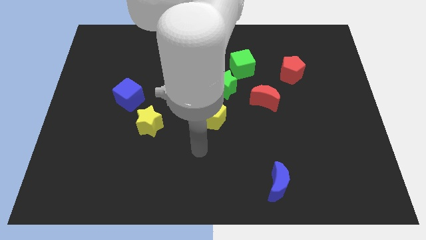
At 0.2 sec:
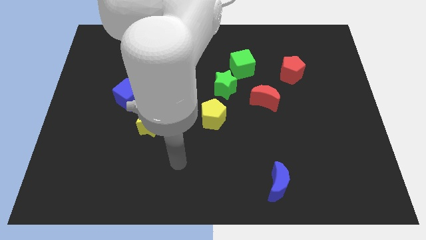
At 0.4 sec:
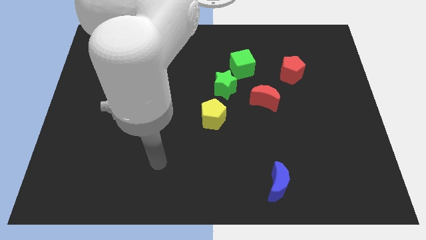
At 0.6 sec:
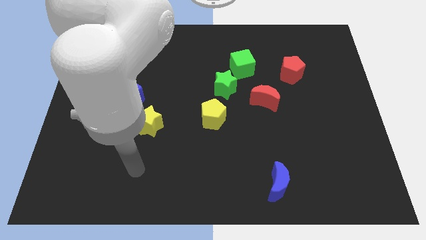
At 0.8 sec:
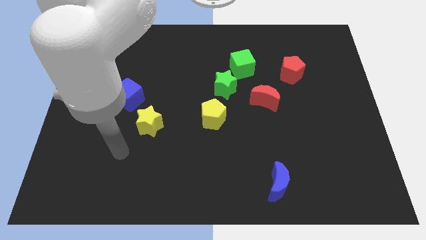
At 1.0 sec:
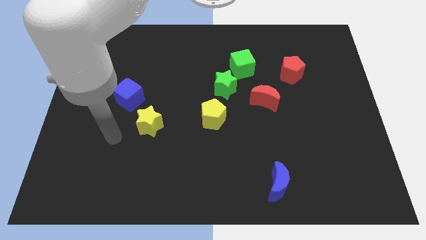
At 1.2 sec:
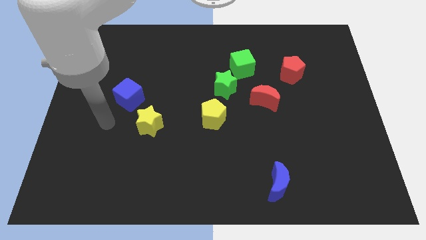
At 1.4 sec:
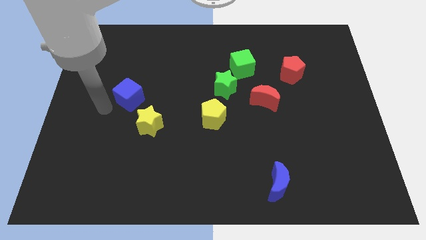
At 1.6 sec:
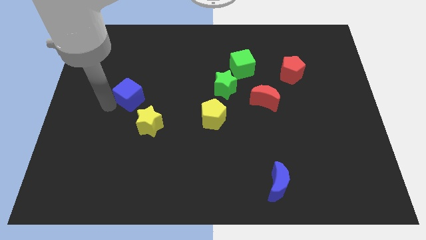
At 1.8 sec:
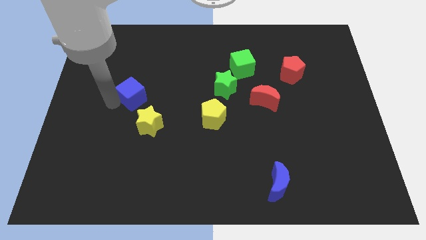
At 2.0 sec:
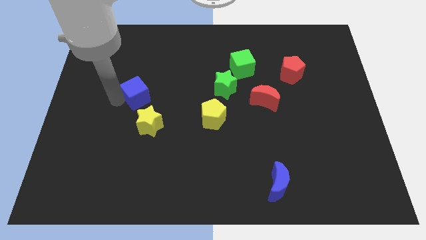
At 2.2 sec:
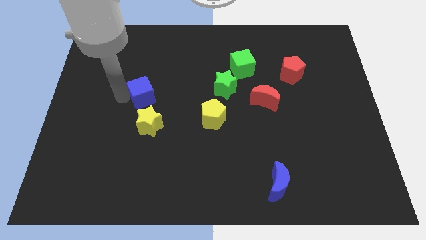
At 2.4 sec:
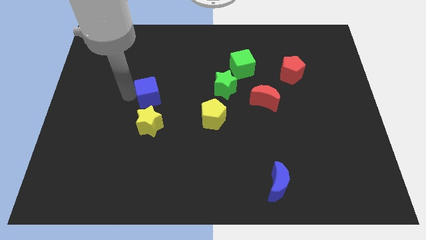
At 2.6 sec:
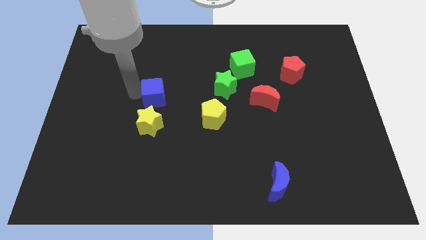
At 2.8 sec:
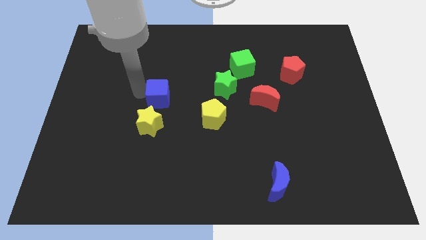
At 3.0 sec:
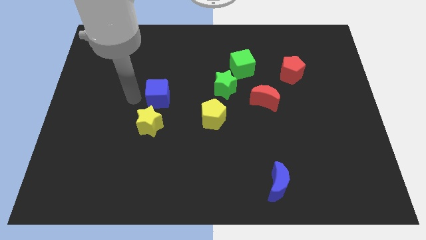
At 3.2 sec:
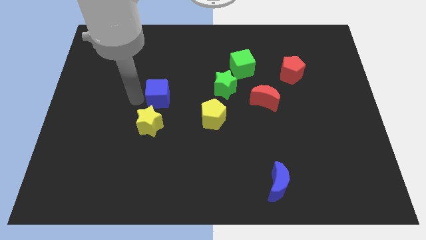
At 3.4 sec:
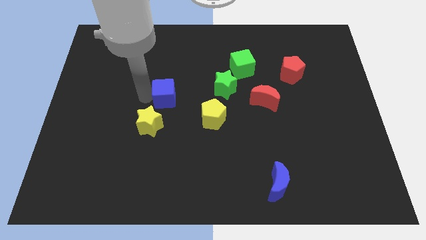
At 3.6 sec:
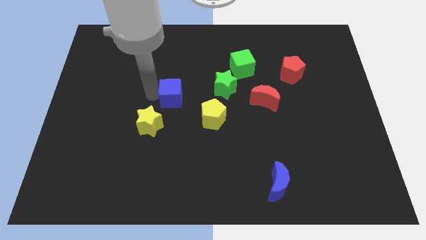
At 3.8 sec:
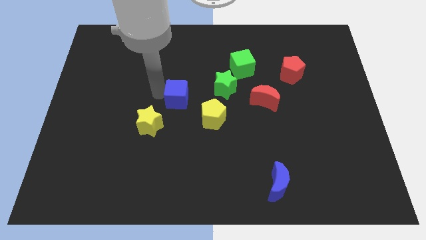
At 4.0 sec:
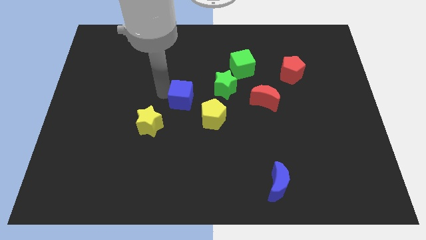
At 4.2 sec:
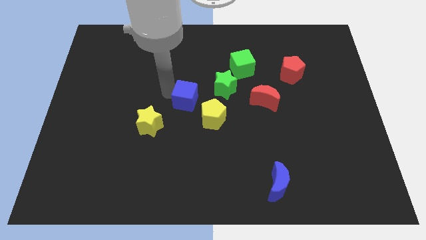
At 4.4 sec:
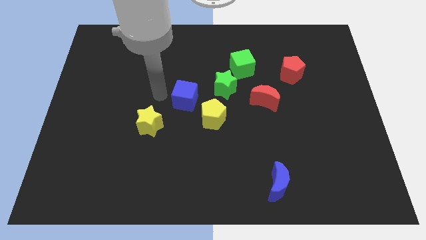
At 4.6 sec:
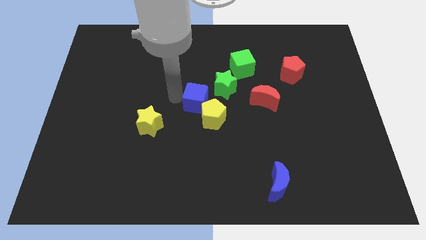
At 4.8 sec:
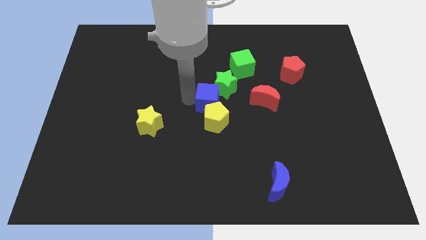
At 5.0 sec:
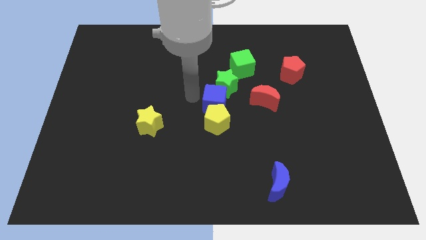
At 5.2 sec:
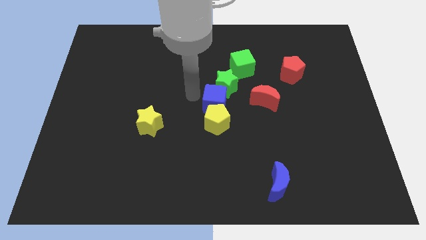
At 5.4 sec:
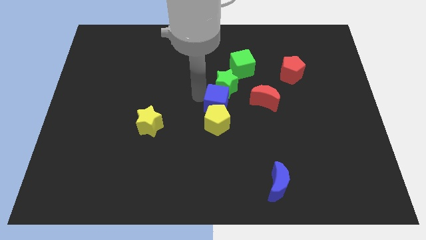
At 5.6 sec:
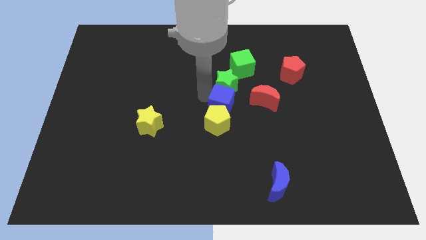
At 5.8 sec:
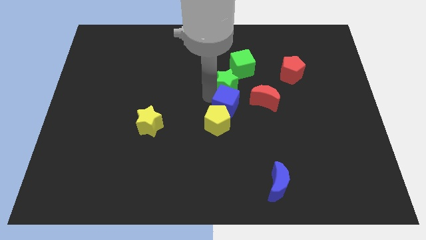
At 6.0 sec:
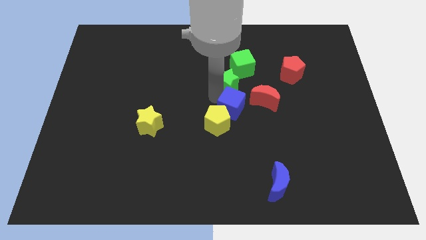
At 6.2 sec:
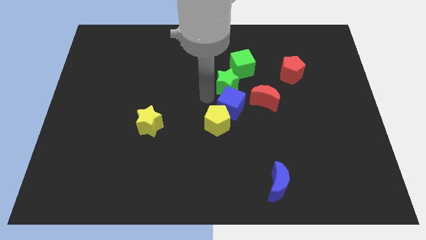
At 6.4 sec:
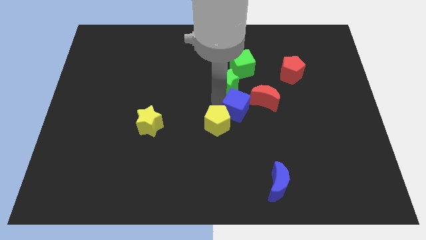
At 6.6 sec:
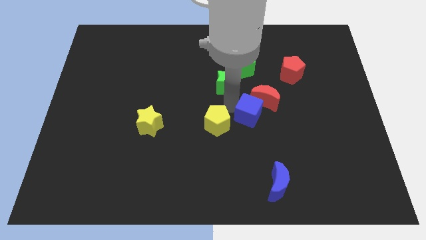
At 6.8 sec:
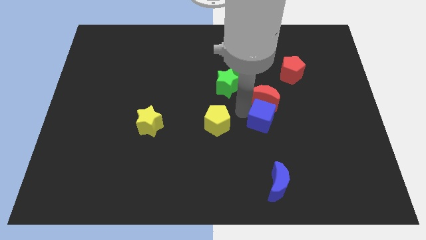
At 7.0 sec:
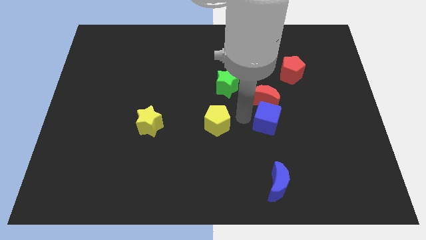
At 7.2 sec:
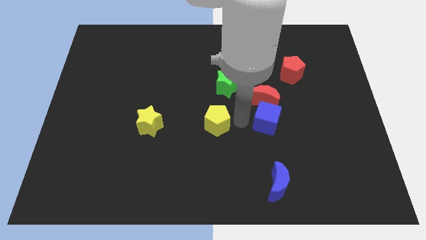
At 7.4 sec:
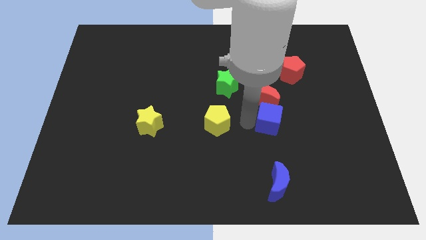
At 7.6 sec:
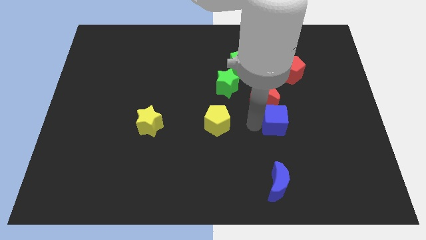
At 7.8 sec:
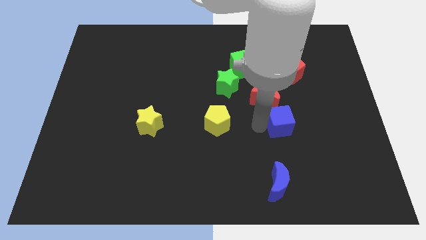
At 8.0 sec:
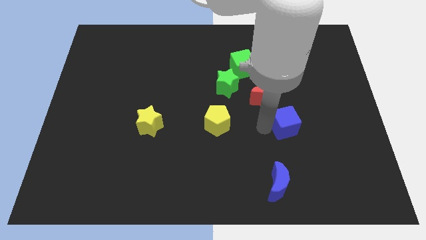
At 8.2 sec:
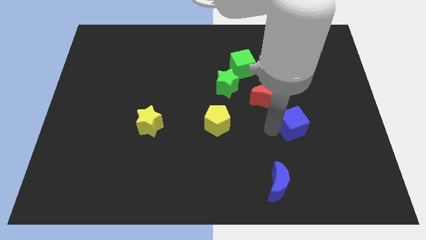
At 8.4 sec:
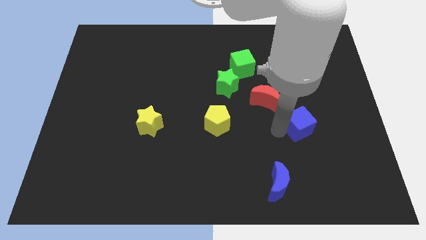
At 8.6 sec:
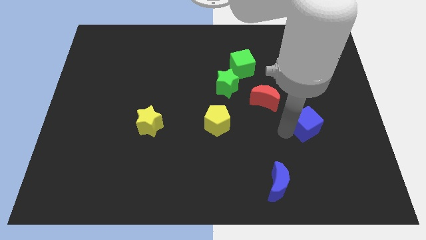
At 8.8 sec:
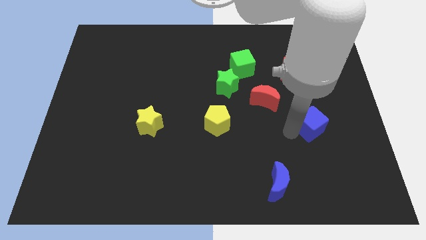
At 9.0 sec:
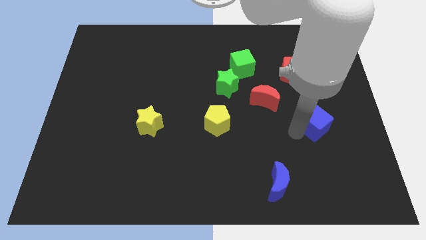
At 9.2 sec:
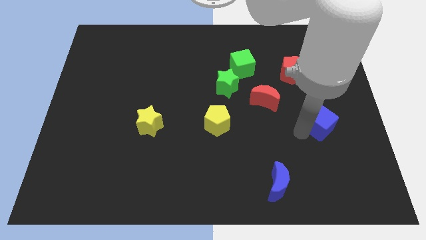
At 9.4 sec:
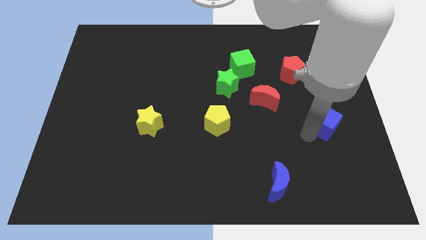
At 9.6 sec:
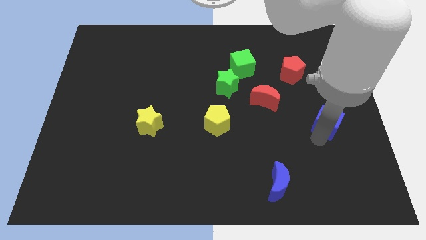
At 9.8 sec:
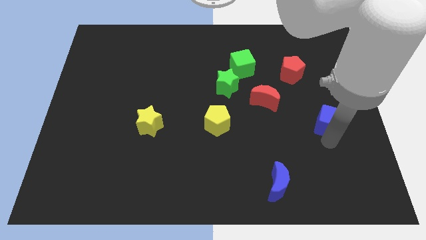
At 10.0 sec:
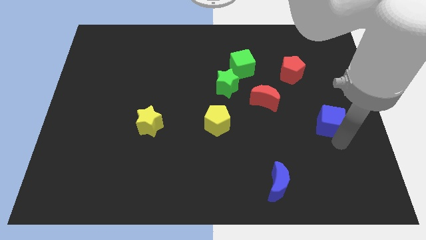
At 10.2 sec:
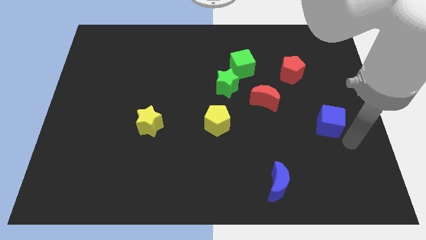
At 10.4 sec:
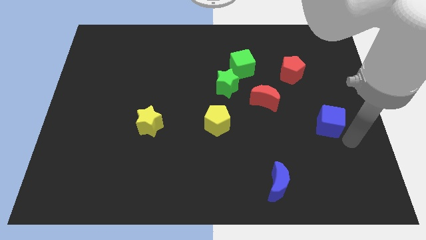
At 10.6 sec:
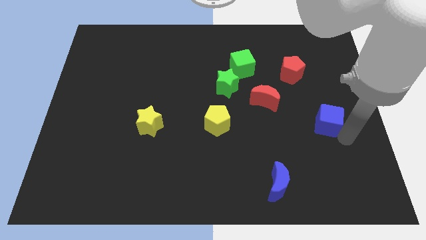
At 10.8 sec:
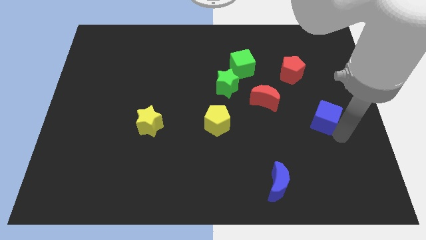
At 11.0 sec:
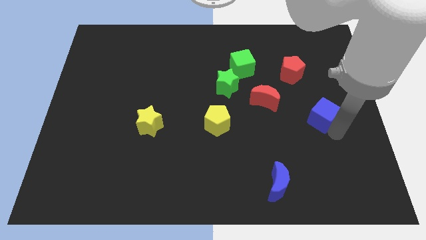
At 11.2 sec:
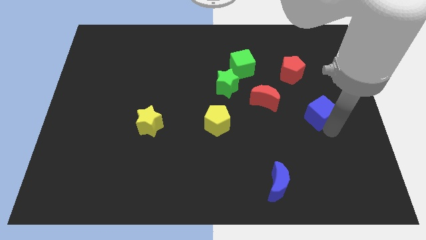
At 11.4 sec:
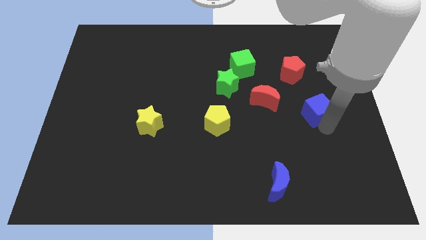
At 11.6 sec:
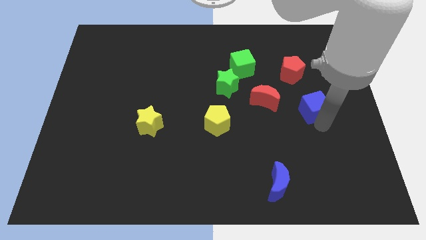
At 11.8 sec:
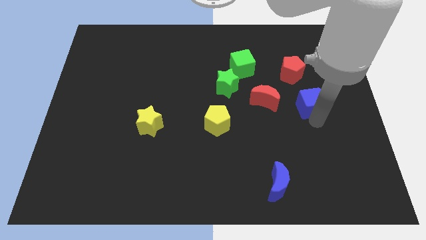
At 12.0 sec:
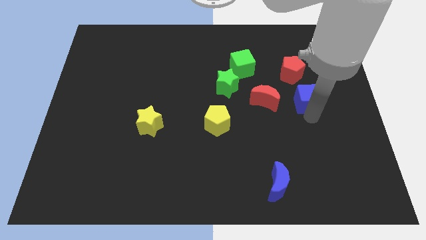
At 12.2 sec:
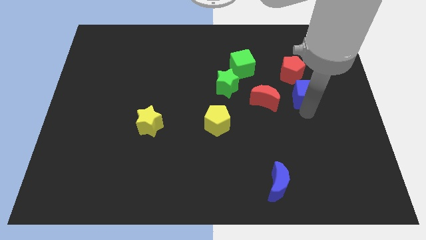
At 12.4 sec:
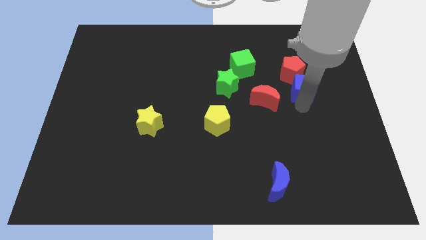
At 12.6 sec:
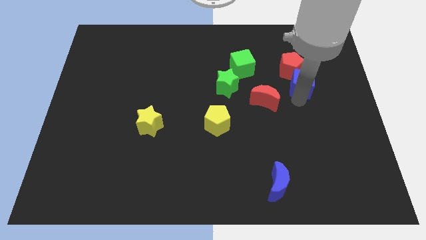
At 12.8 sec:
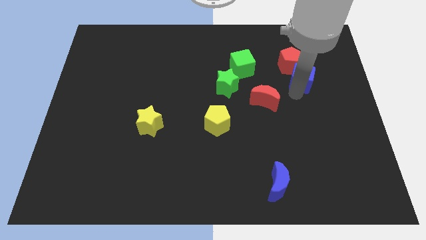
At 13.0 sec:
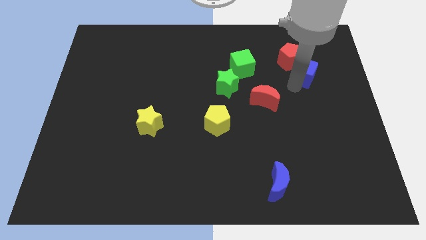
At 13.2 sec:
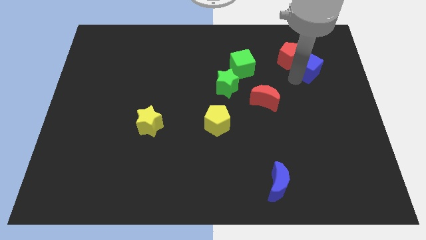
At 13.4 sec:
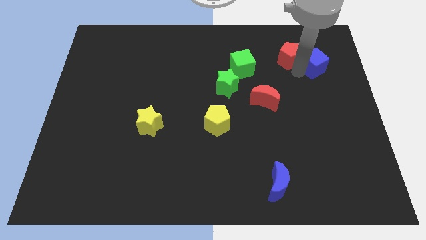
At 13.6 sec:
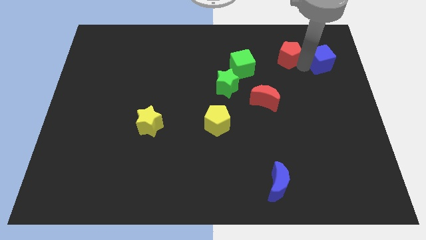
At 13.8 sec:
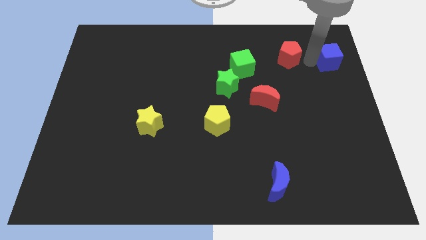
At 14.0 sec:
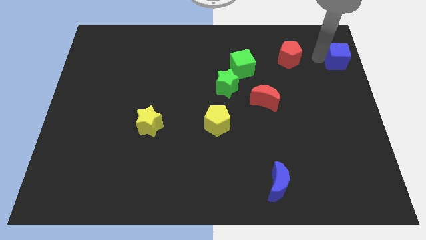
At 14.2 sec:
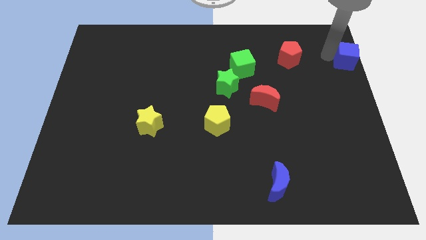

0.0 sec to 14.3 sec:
move the blue cube to the center right
